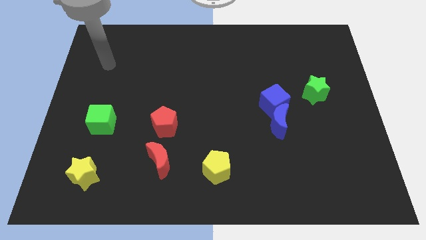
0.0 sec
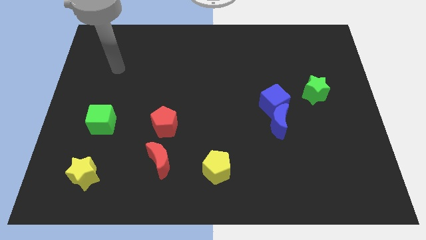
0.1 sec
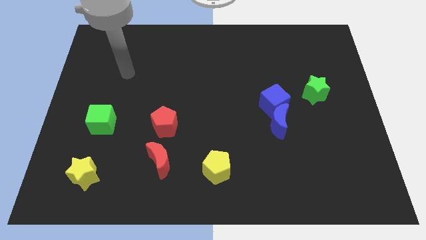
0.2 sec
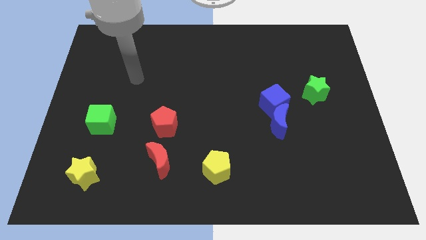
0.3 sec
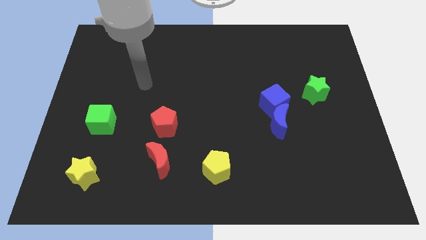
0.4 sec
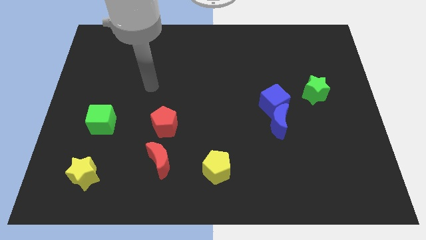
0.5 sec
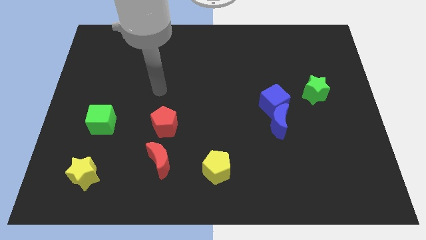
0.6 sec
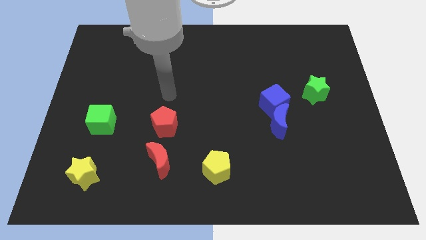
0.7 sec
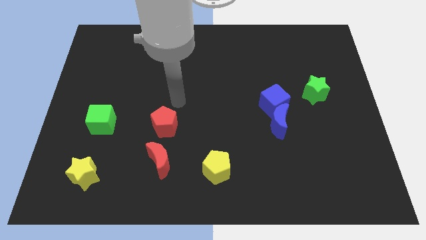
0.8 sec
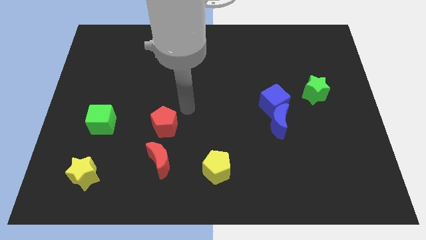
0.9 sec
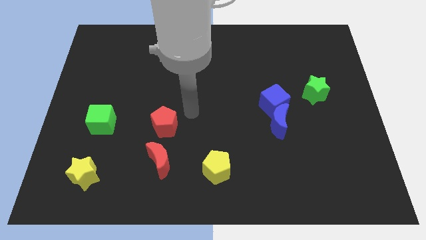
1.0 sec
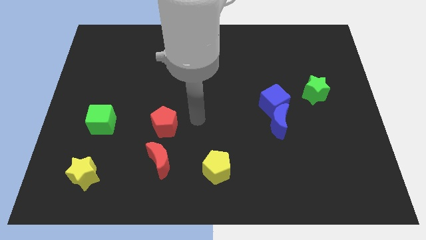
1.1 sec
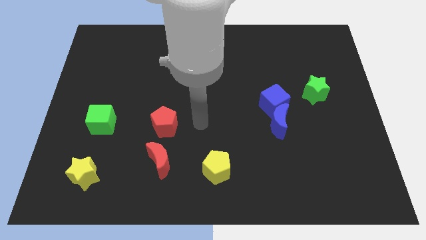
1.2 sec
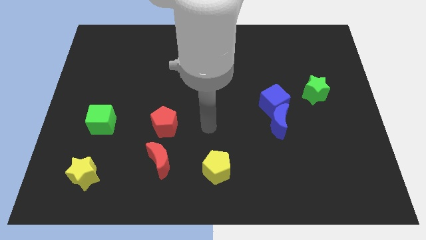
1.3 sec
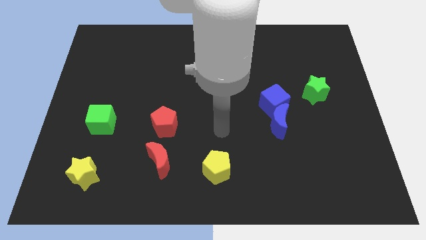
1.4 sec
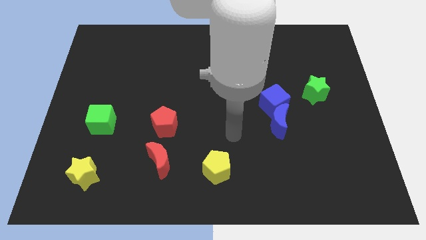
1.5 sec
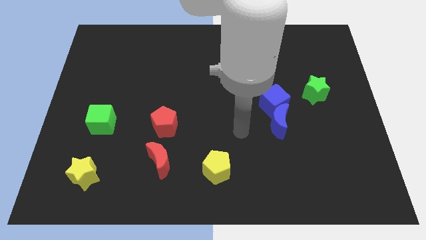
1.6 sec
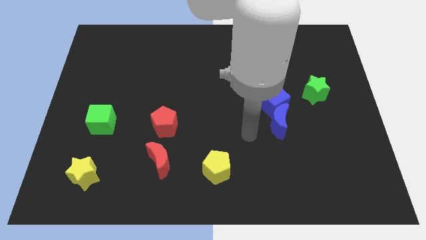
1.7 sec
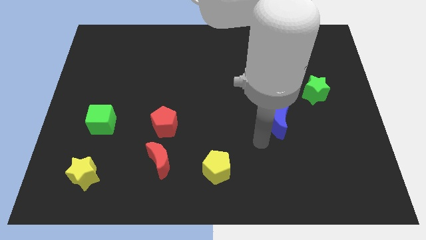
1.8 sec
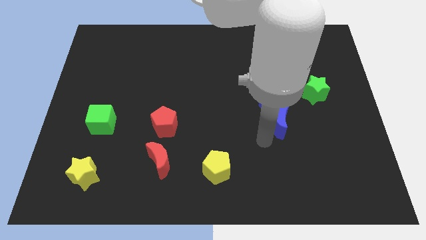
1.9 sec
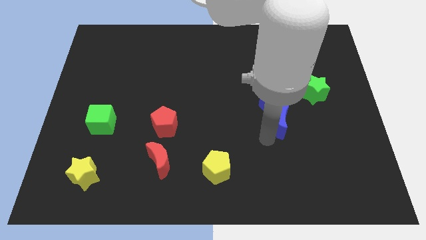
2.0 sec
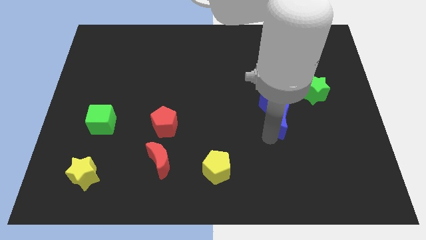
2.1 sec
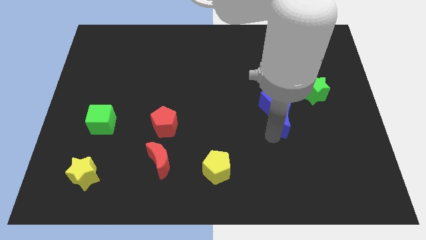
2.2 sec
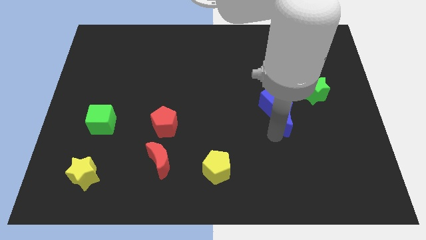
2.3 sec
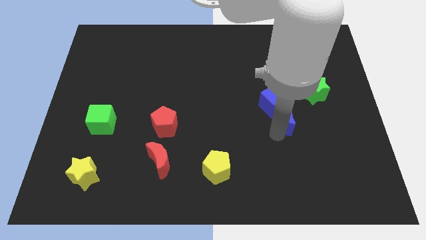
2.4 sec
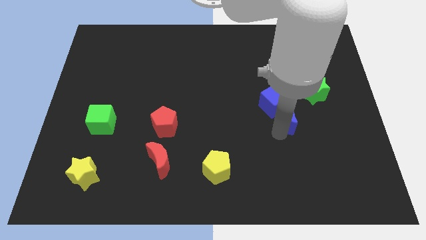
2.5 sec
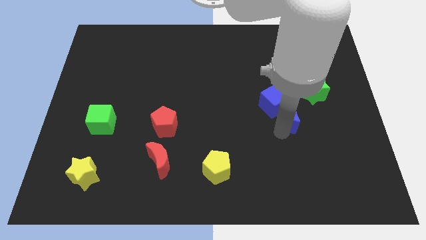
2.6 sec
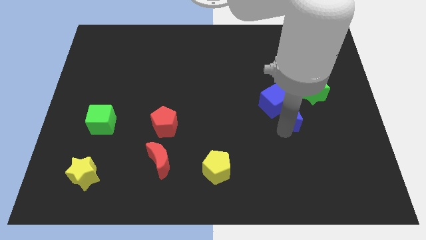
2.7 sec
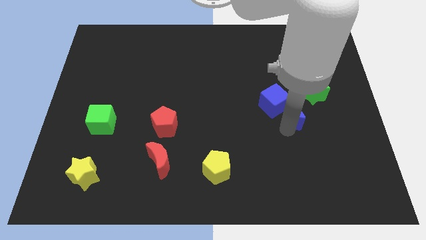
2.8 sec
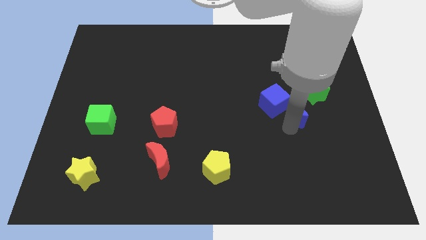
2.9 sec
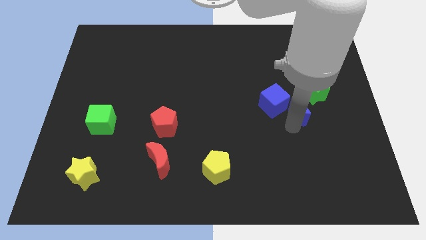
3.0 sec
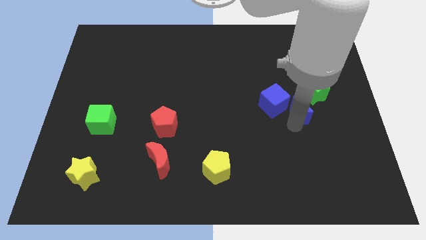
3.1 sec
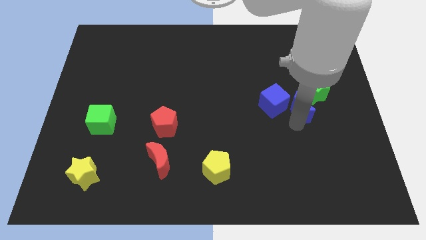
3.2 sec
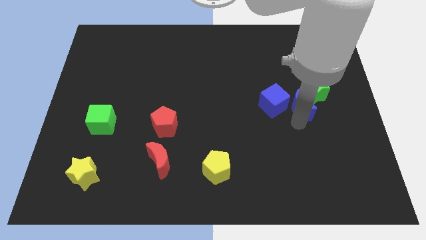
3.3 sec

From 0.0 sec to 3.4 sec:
slide the blue moon upwards and to the right diagonally a bit

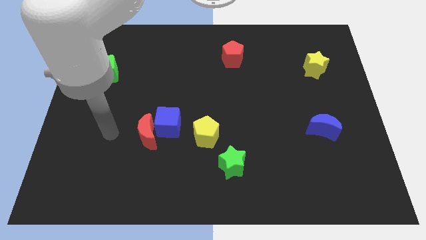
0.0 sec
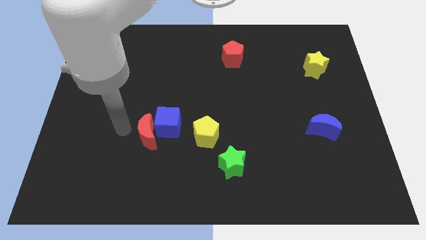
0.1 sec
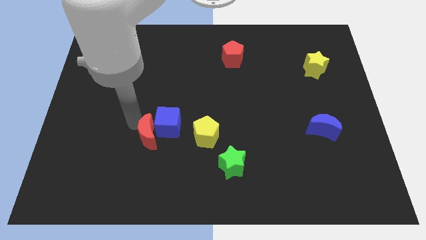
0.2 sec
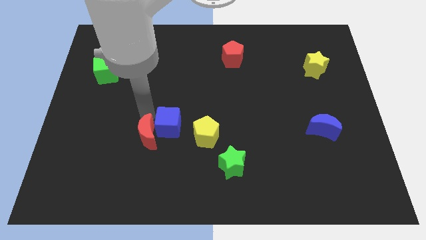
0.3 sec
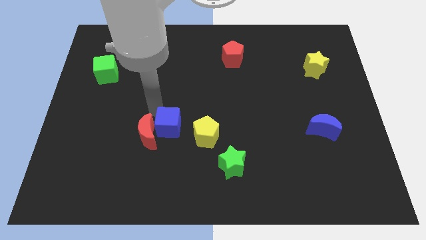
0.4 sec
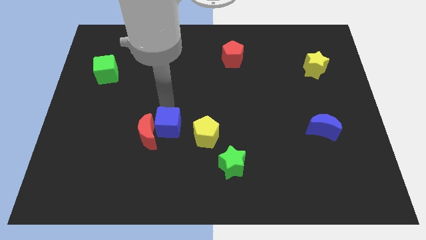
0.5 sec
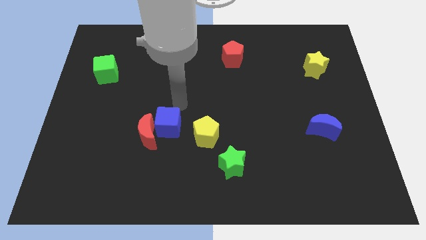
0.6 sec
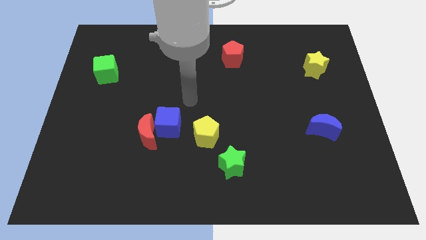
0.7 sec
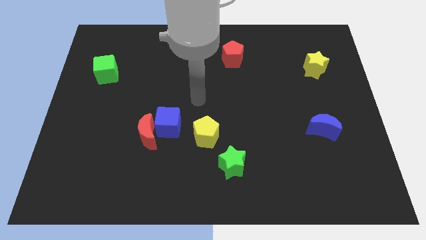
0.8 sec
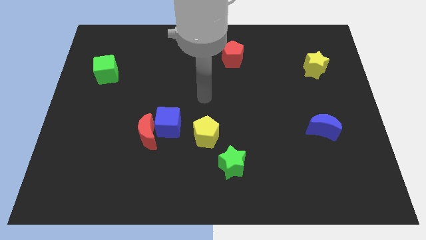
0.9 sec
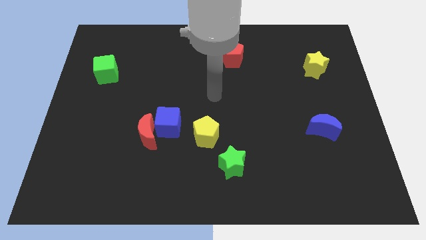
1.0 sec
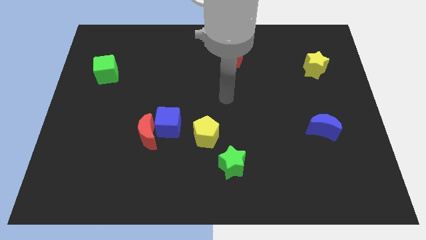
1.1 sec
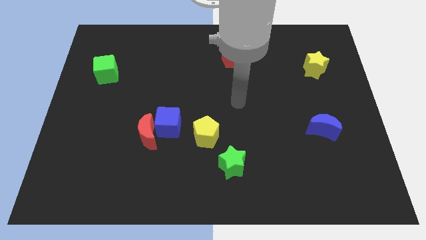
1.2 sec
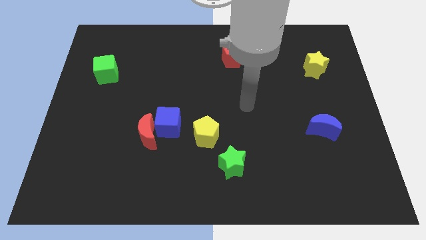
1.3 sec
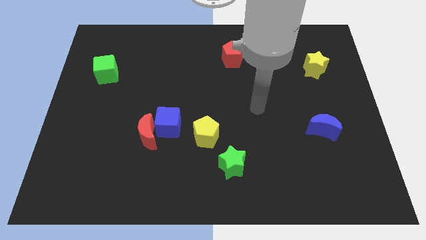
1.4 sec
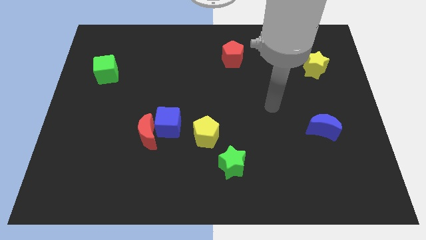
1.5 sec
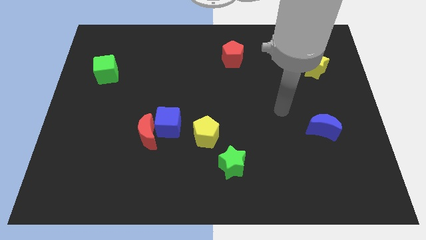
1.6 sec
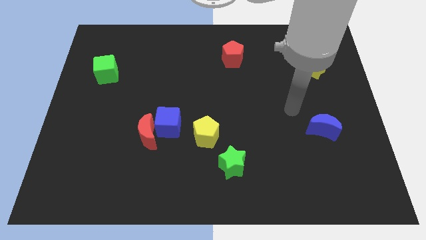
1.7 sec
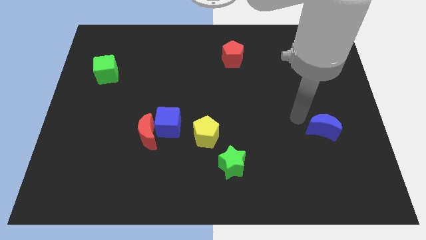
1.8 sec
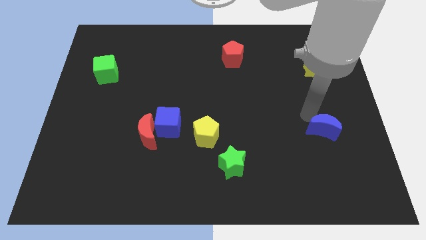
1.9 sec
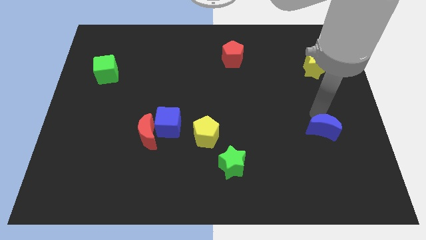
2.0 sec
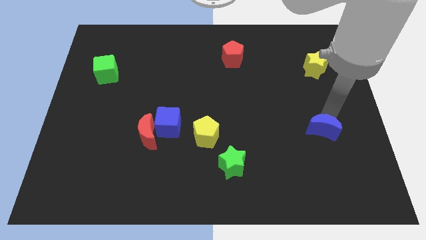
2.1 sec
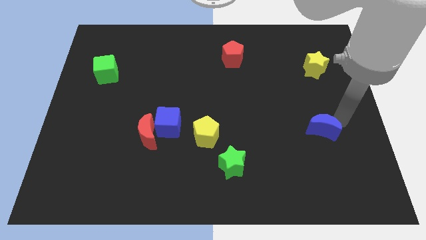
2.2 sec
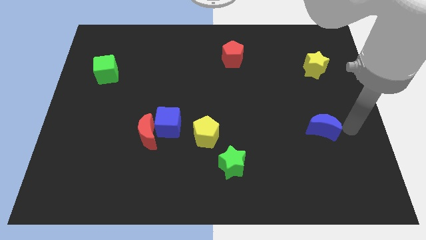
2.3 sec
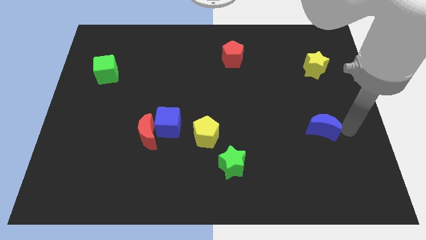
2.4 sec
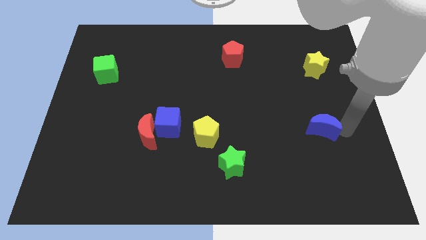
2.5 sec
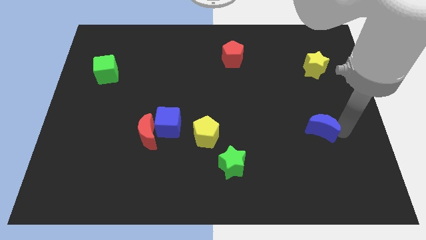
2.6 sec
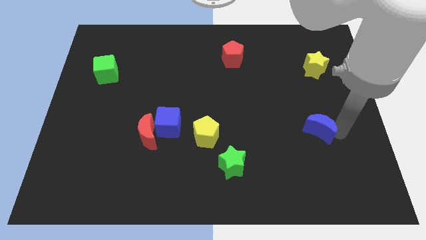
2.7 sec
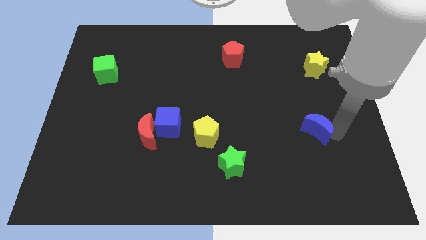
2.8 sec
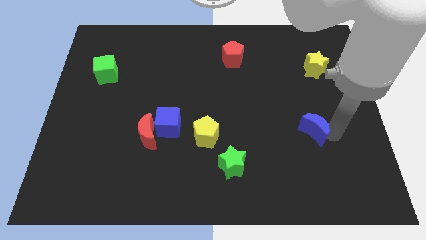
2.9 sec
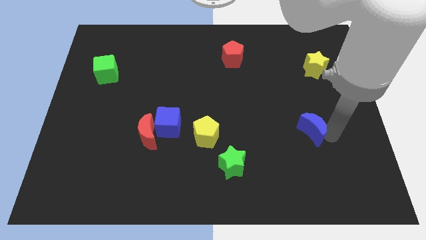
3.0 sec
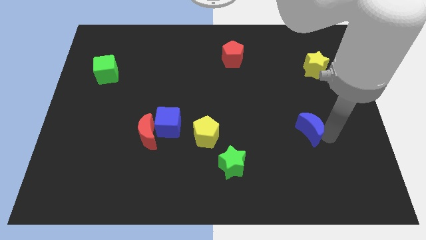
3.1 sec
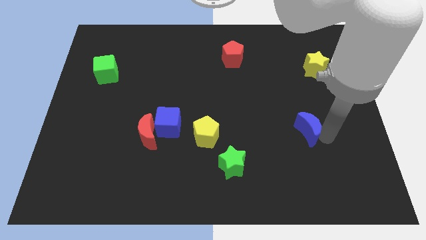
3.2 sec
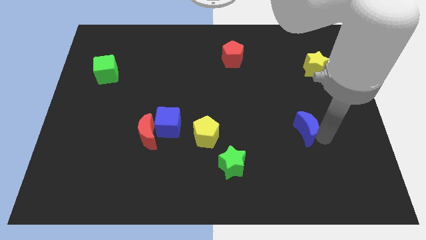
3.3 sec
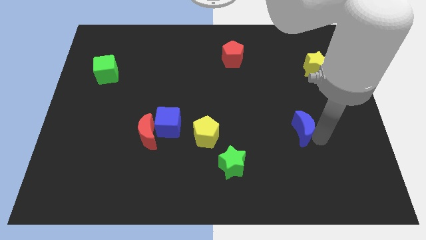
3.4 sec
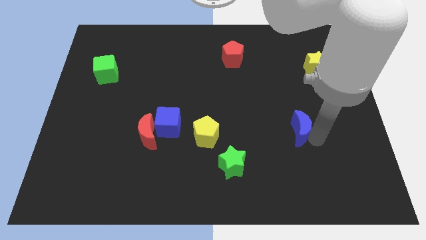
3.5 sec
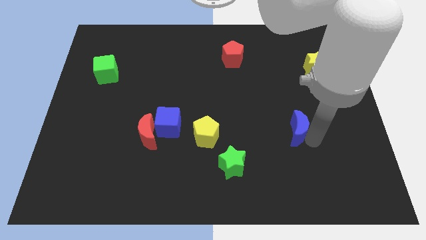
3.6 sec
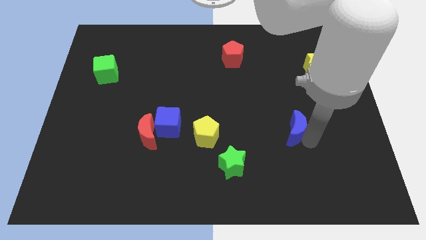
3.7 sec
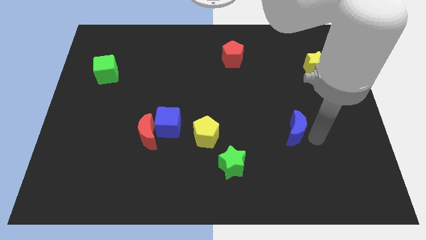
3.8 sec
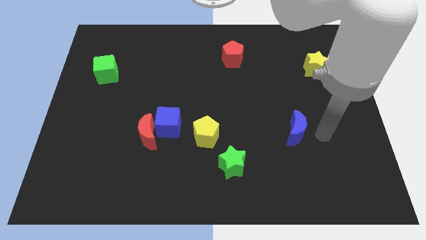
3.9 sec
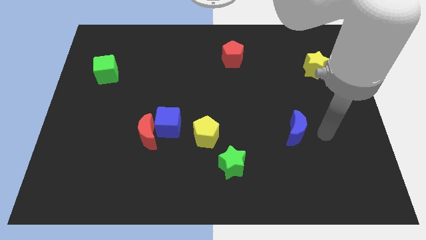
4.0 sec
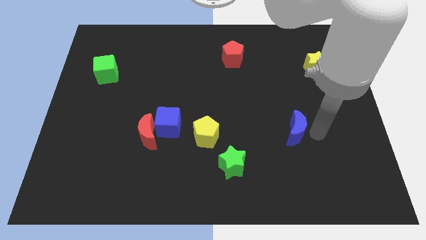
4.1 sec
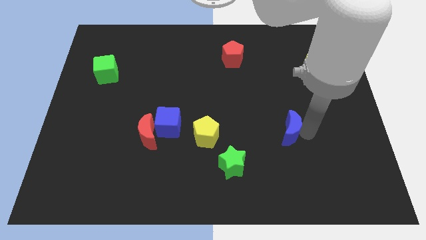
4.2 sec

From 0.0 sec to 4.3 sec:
slide the blue moon a little bit left

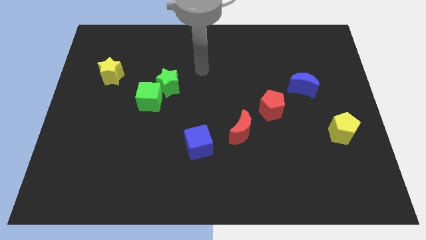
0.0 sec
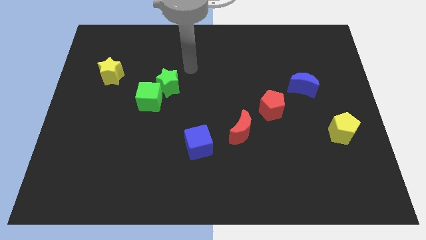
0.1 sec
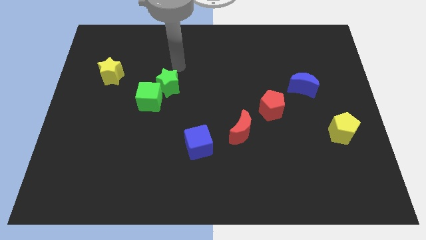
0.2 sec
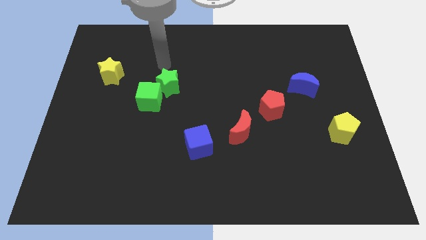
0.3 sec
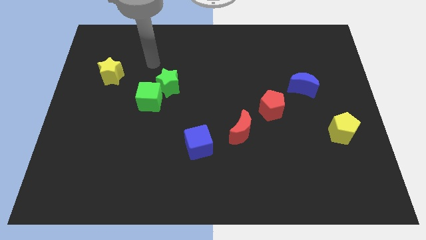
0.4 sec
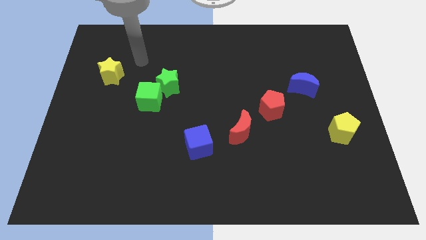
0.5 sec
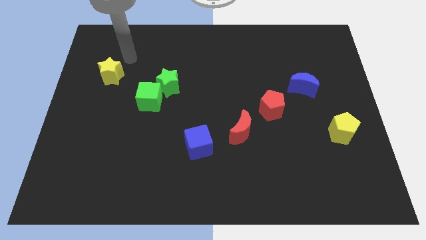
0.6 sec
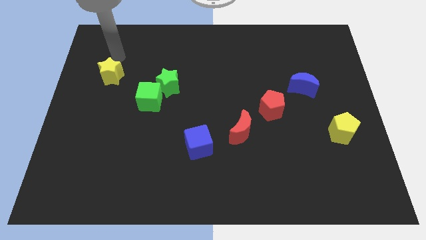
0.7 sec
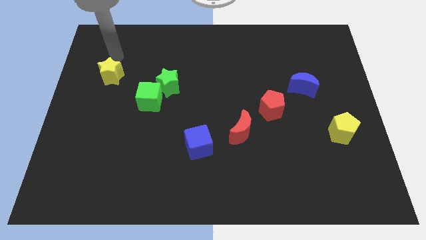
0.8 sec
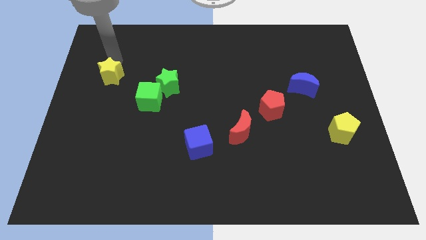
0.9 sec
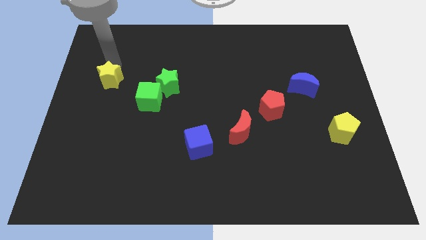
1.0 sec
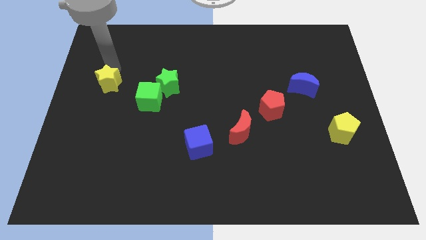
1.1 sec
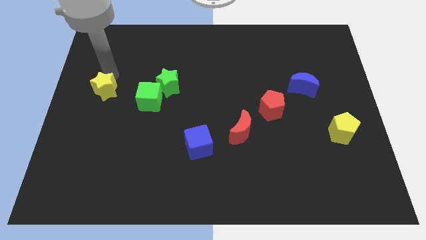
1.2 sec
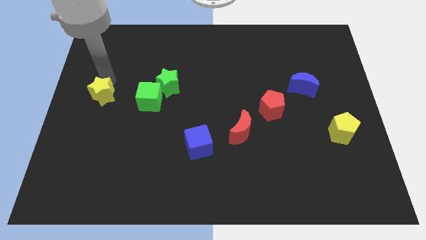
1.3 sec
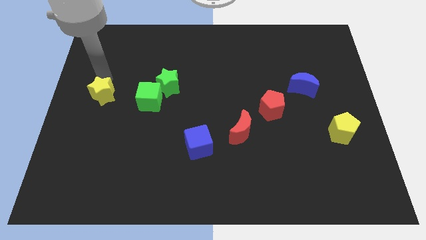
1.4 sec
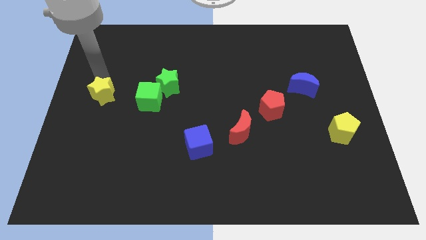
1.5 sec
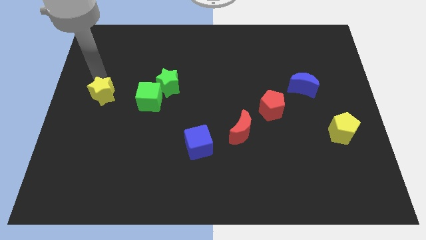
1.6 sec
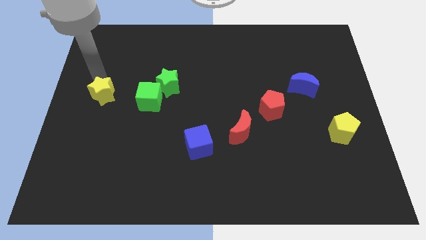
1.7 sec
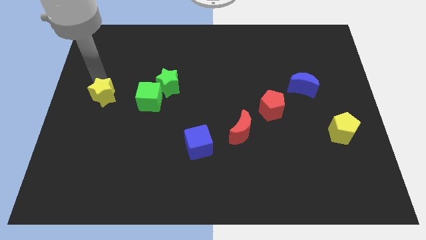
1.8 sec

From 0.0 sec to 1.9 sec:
push the yellow star a little downwards
